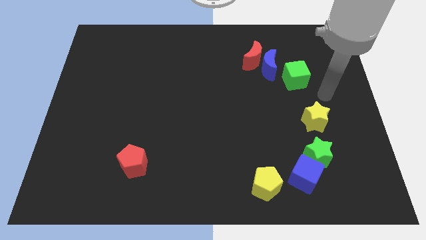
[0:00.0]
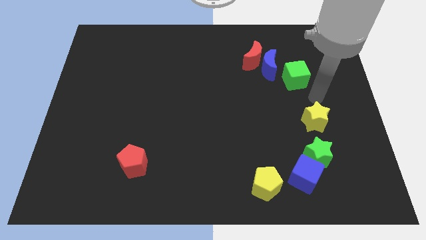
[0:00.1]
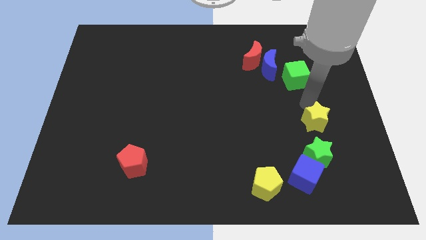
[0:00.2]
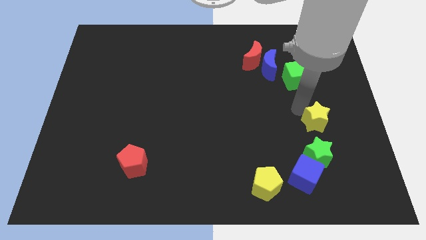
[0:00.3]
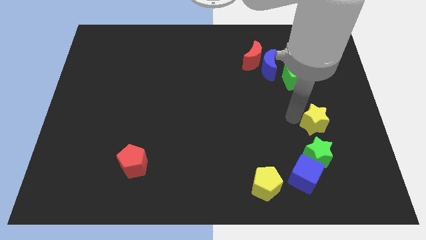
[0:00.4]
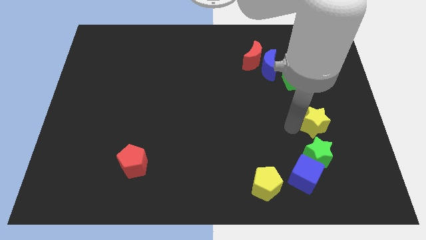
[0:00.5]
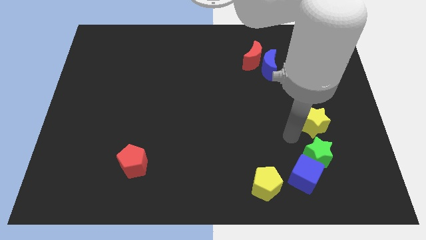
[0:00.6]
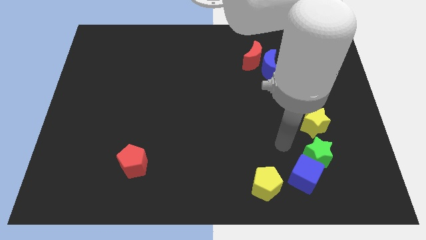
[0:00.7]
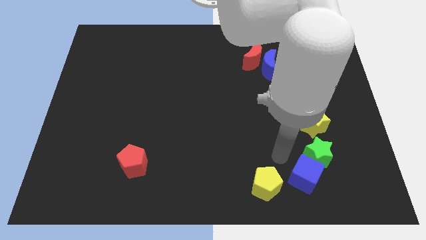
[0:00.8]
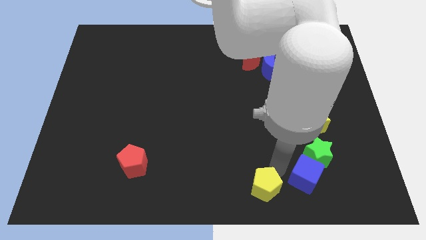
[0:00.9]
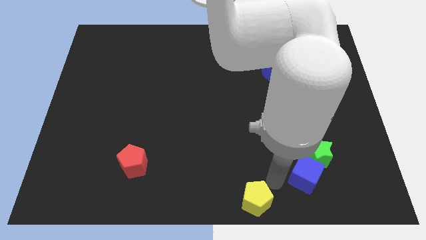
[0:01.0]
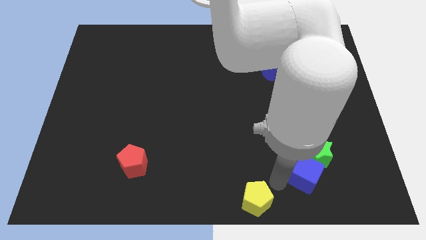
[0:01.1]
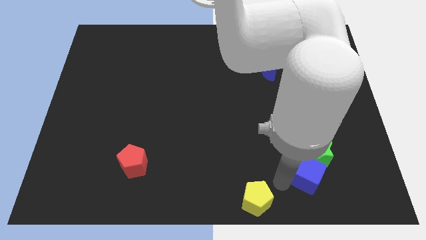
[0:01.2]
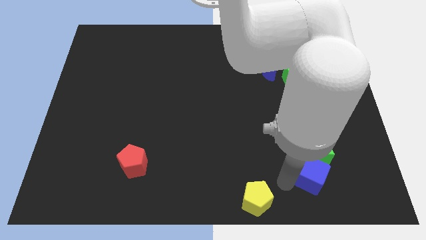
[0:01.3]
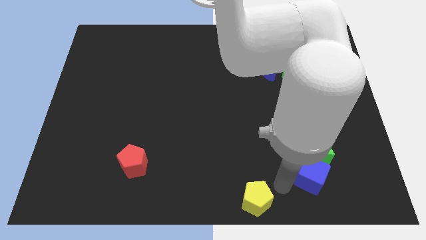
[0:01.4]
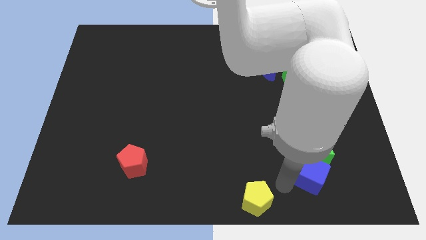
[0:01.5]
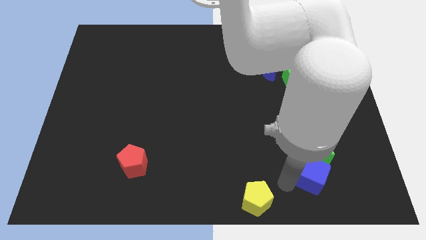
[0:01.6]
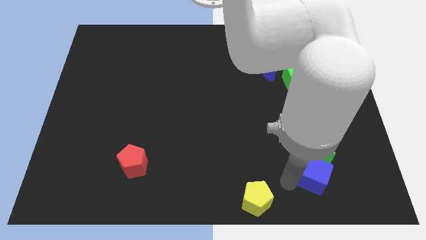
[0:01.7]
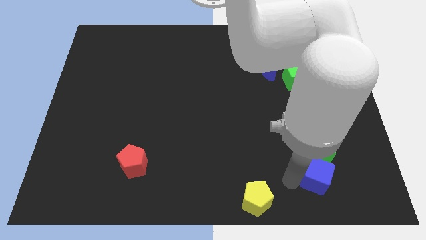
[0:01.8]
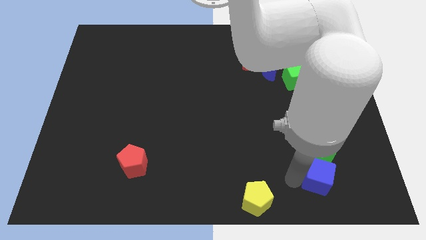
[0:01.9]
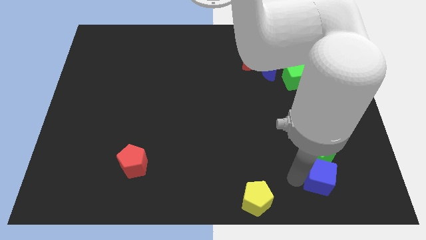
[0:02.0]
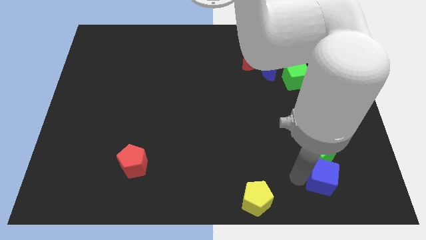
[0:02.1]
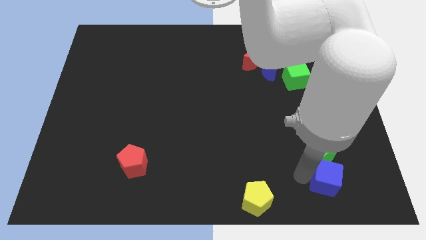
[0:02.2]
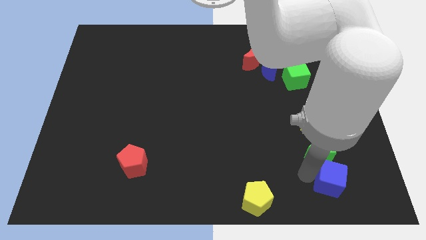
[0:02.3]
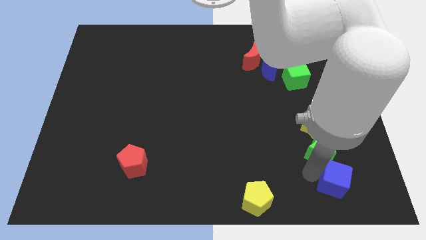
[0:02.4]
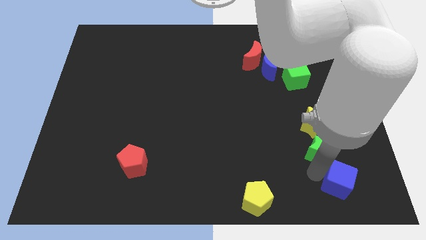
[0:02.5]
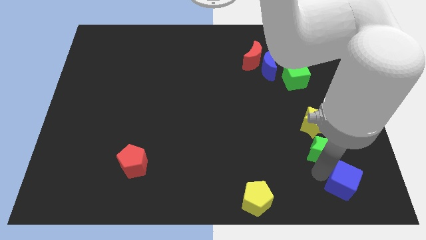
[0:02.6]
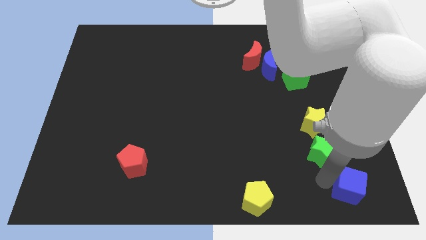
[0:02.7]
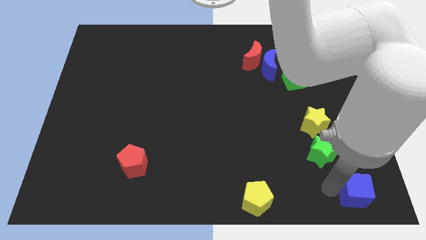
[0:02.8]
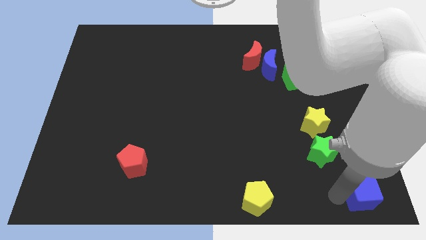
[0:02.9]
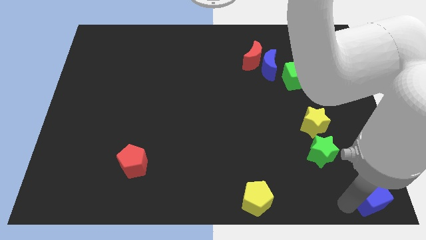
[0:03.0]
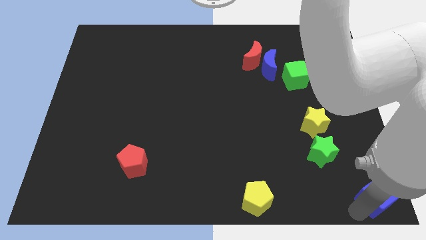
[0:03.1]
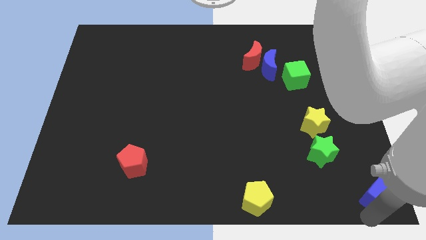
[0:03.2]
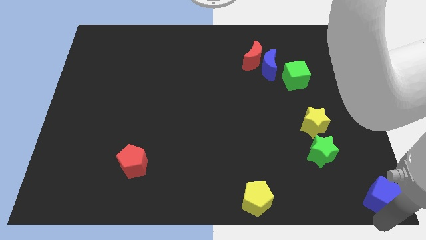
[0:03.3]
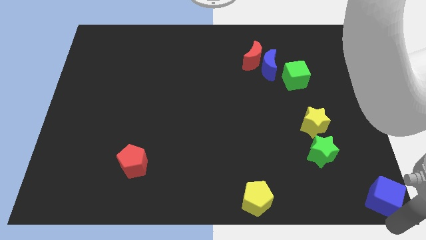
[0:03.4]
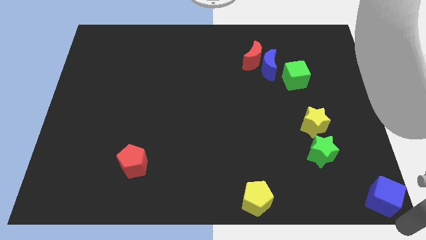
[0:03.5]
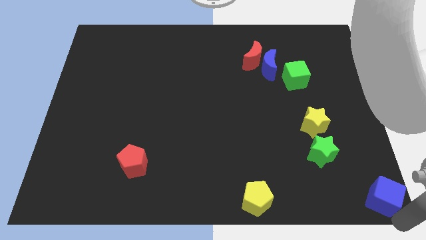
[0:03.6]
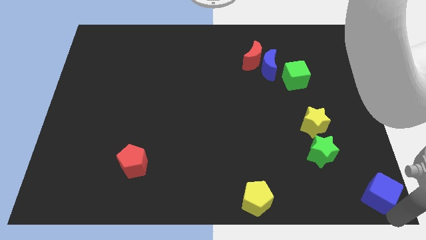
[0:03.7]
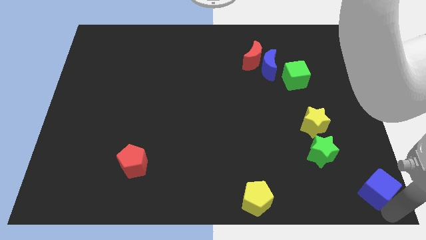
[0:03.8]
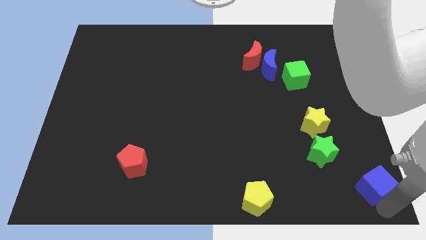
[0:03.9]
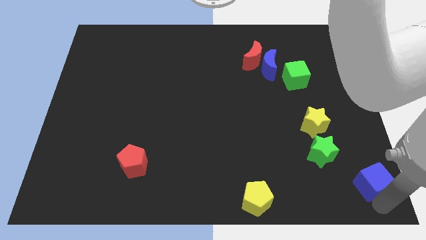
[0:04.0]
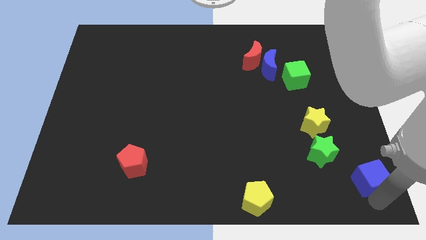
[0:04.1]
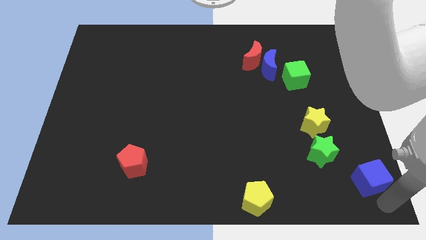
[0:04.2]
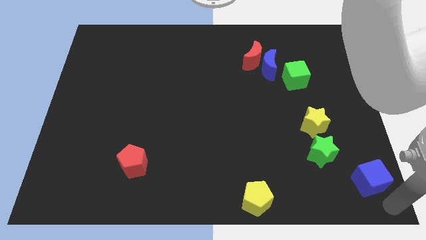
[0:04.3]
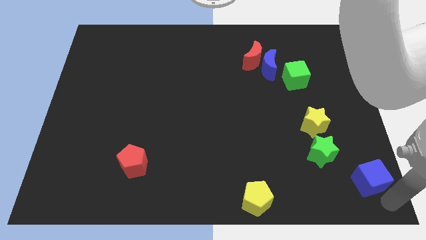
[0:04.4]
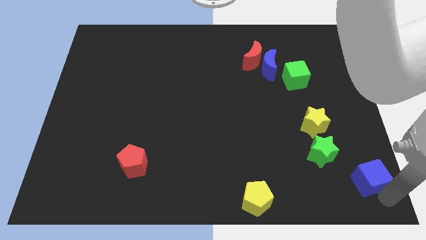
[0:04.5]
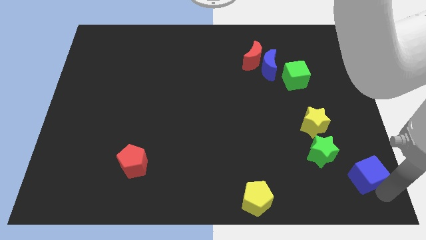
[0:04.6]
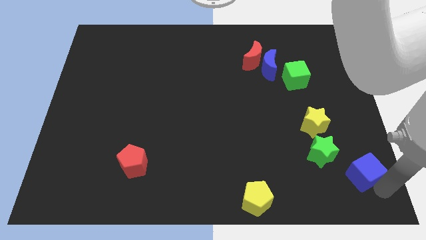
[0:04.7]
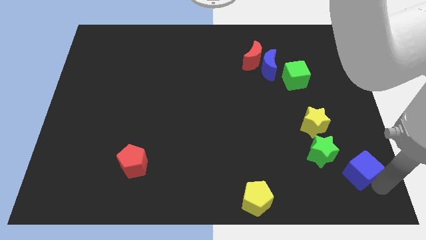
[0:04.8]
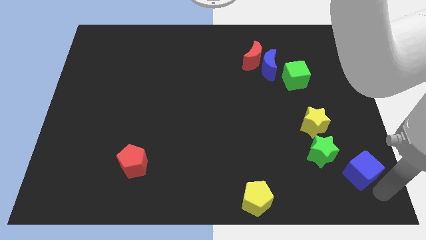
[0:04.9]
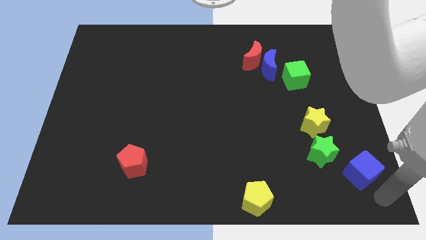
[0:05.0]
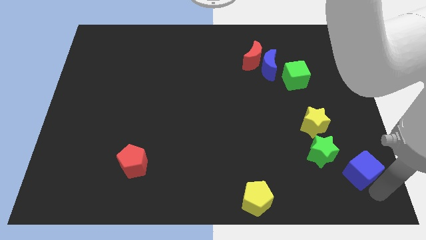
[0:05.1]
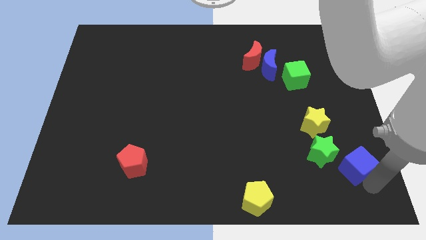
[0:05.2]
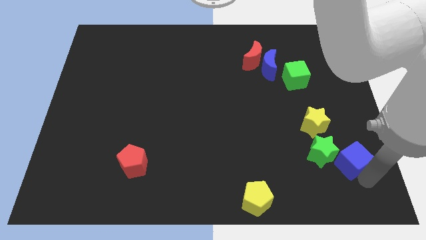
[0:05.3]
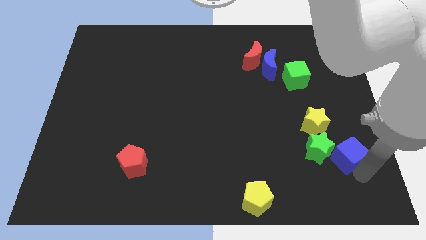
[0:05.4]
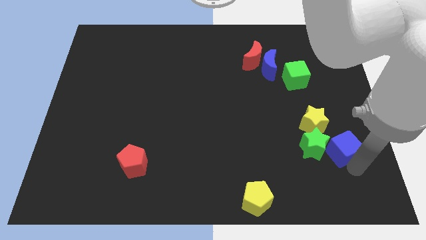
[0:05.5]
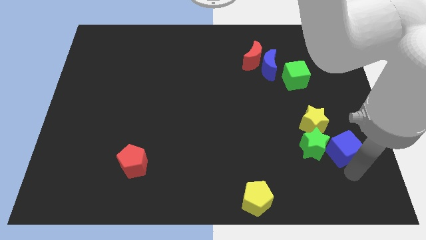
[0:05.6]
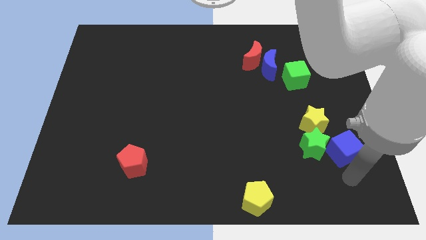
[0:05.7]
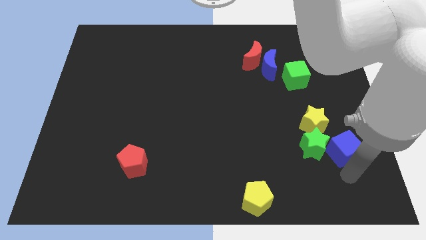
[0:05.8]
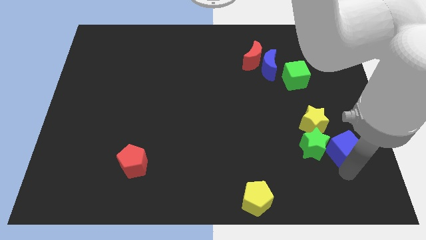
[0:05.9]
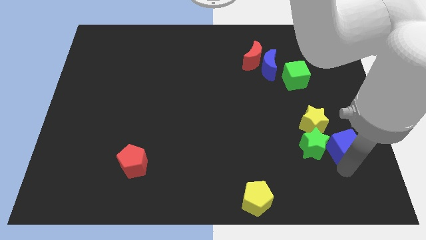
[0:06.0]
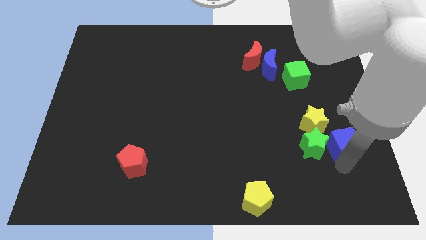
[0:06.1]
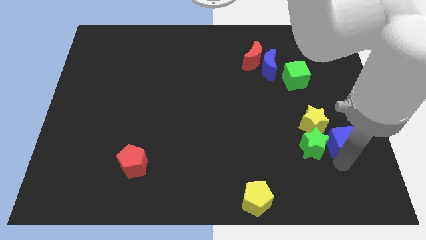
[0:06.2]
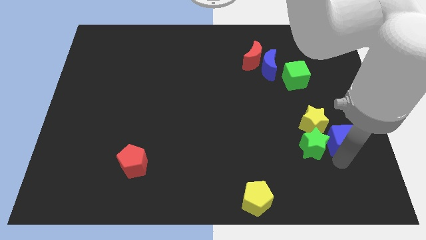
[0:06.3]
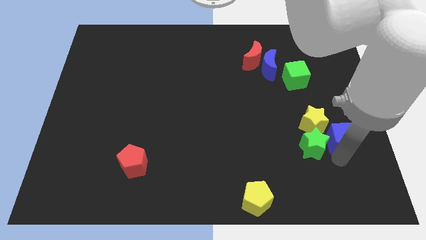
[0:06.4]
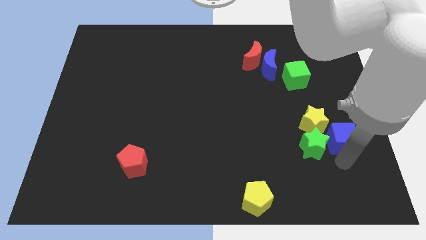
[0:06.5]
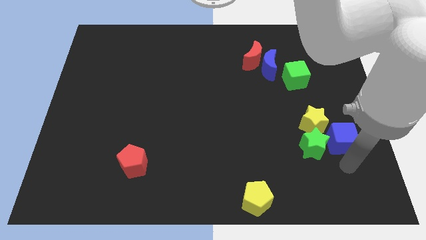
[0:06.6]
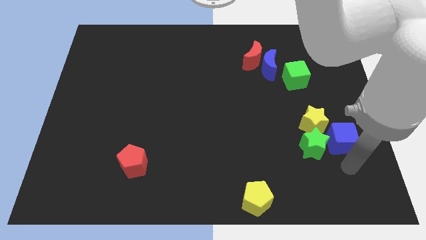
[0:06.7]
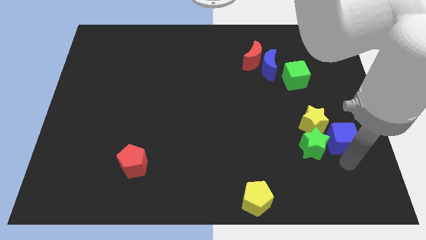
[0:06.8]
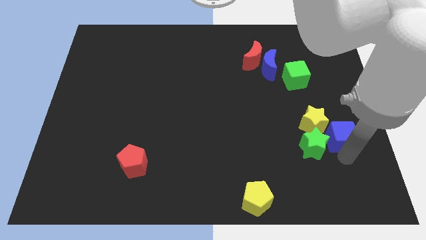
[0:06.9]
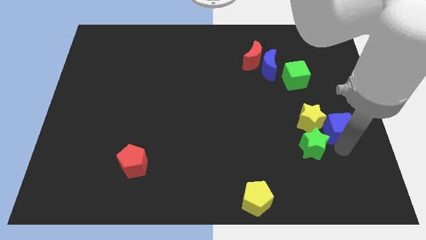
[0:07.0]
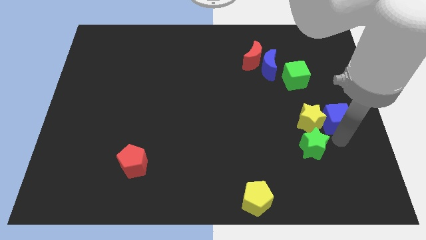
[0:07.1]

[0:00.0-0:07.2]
move the blue cube to the top right of the yellow star

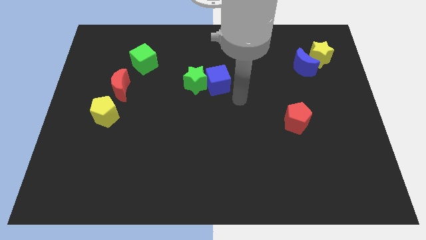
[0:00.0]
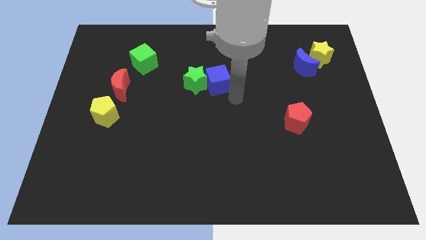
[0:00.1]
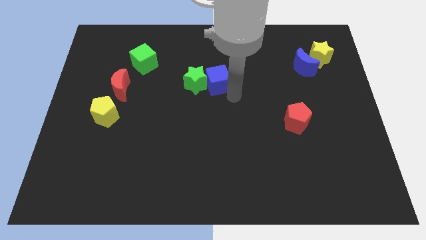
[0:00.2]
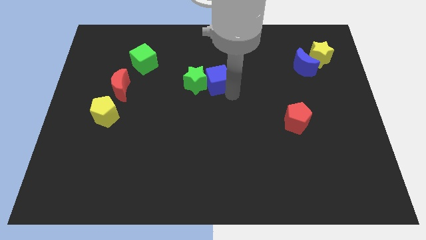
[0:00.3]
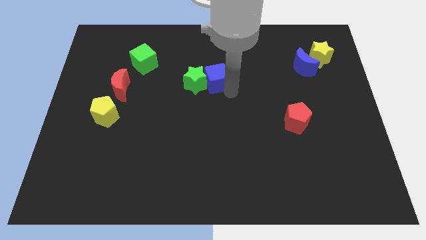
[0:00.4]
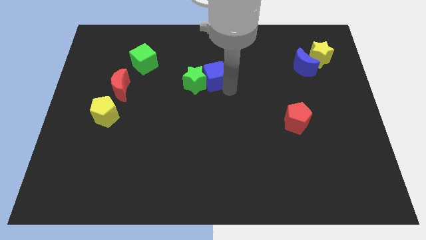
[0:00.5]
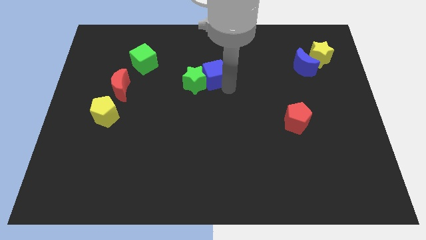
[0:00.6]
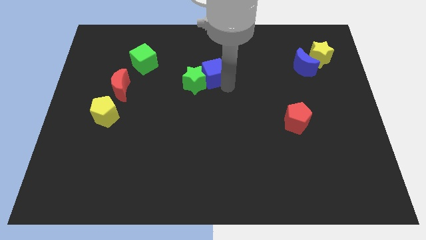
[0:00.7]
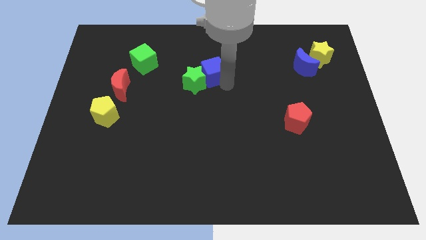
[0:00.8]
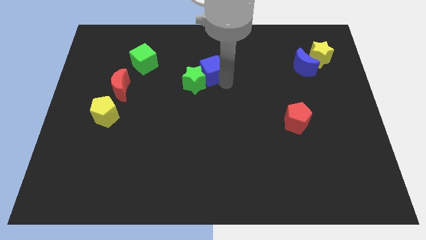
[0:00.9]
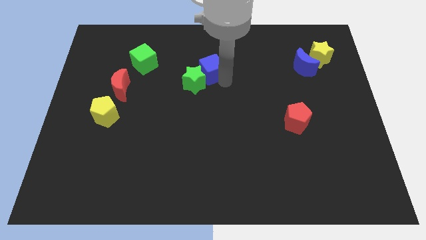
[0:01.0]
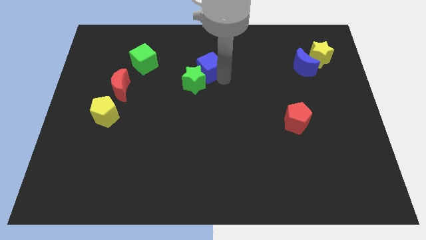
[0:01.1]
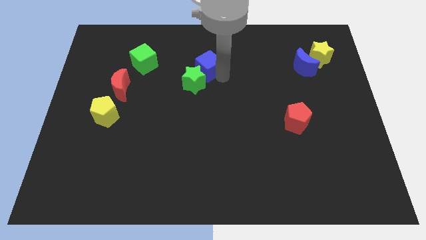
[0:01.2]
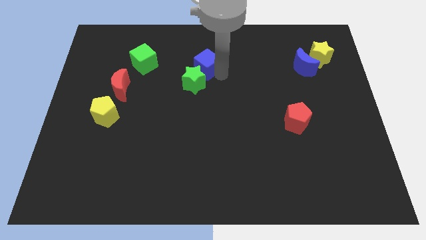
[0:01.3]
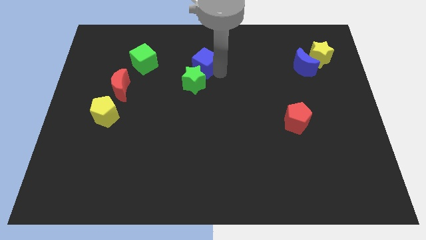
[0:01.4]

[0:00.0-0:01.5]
slide the blue cube just right of the green cube
